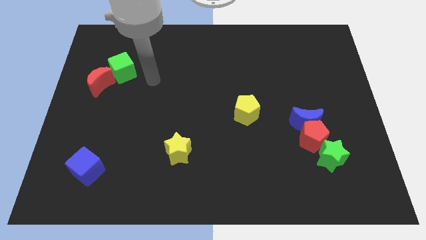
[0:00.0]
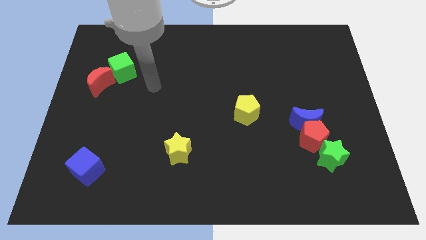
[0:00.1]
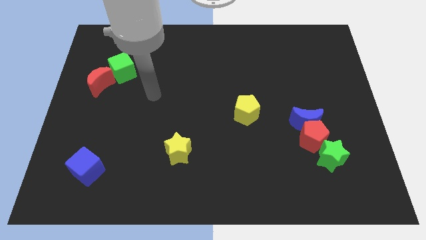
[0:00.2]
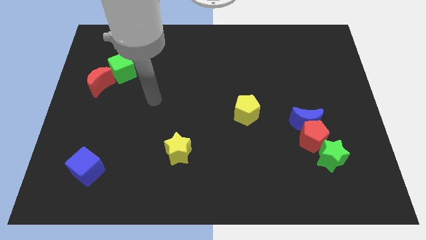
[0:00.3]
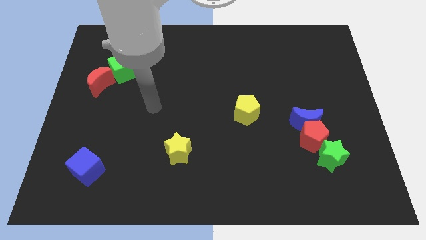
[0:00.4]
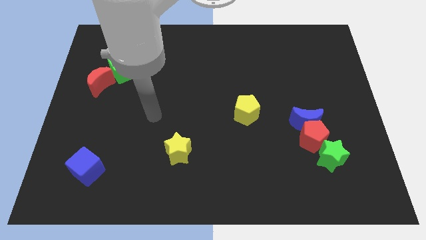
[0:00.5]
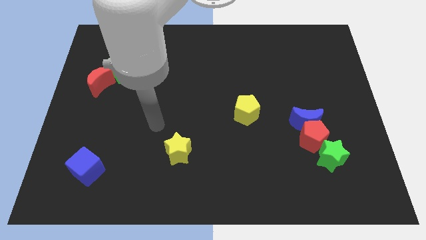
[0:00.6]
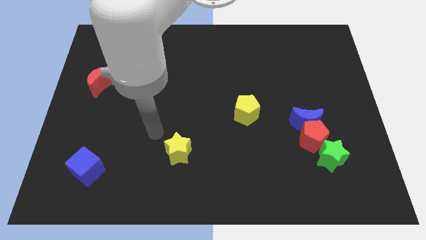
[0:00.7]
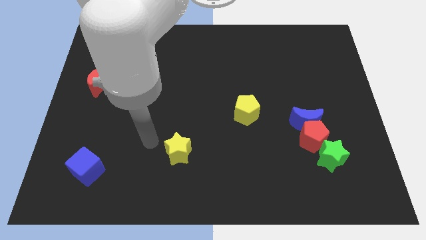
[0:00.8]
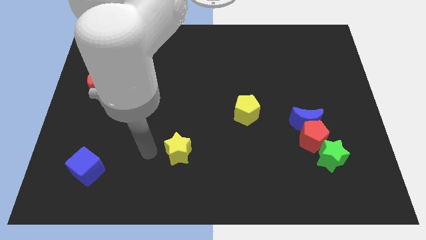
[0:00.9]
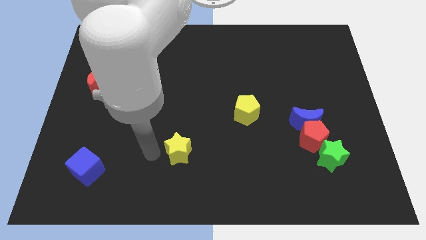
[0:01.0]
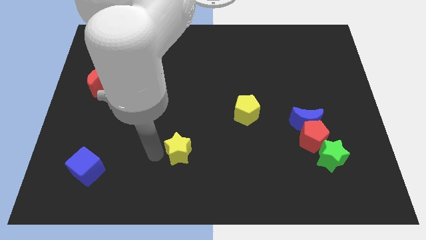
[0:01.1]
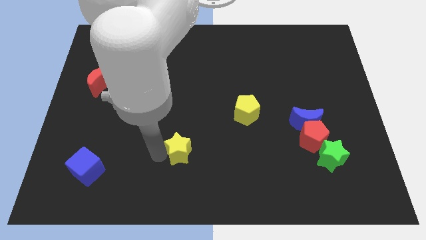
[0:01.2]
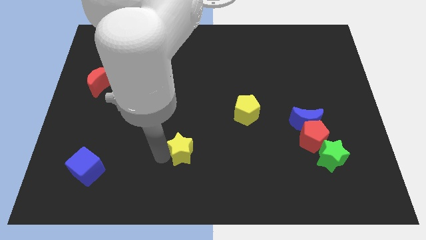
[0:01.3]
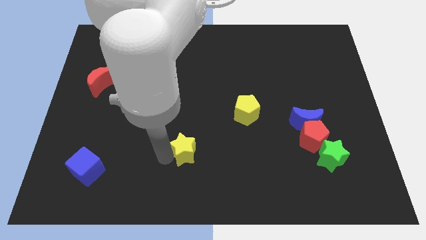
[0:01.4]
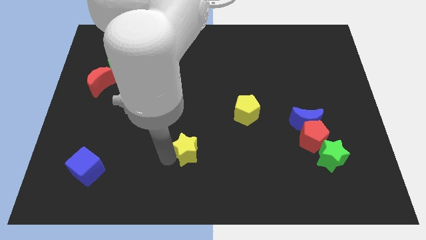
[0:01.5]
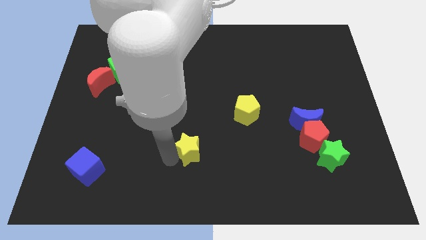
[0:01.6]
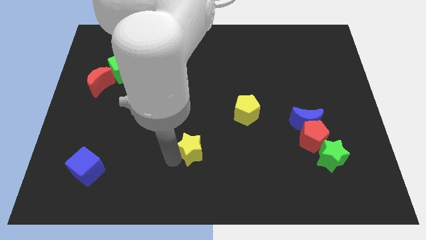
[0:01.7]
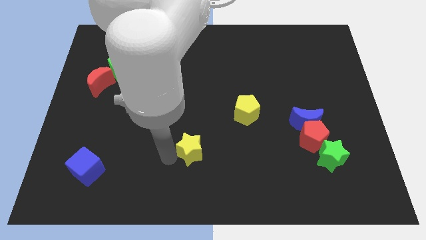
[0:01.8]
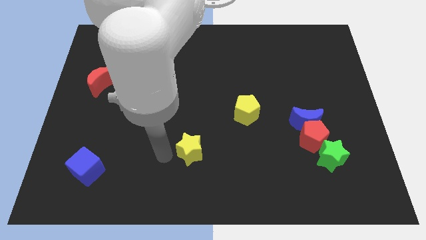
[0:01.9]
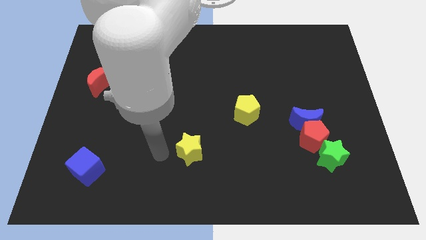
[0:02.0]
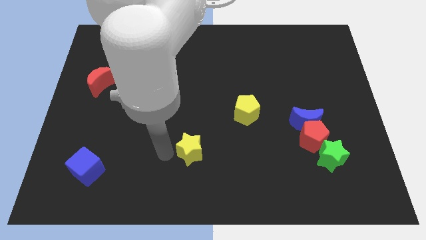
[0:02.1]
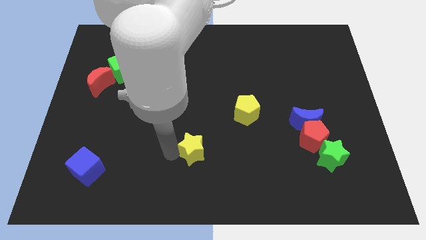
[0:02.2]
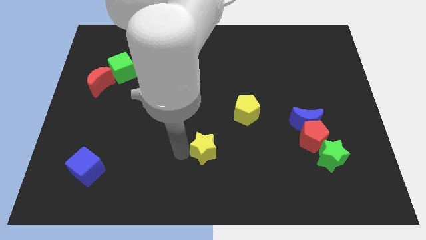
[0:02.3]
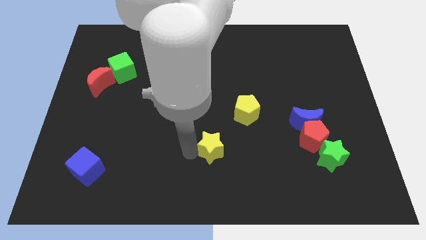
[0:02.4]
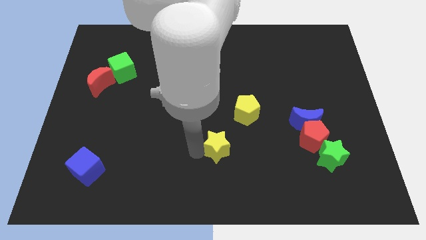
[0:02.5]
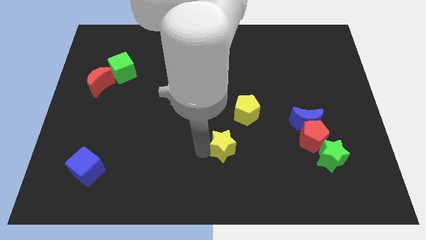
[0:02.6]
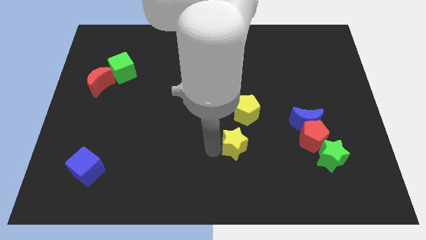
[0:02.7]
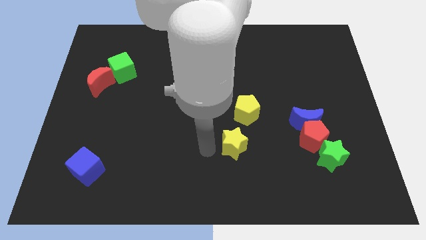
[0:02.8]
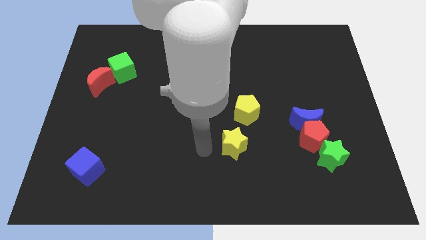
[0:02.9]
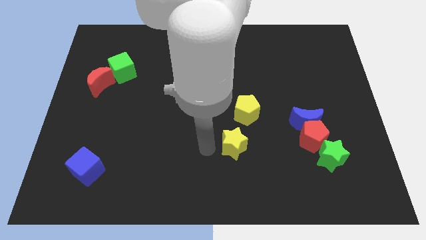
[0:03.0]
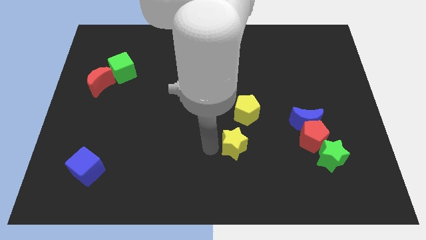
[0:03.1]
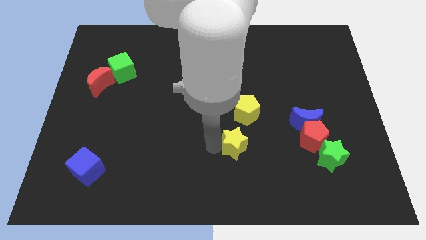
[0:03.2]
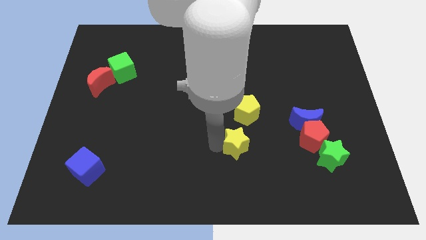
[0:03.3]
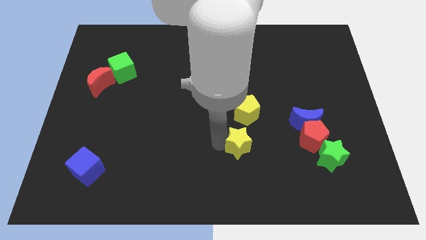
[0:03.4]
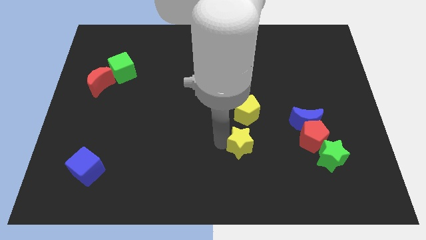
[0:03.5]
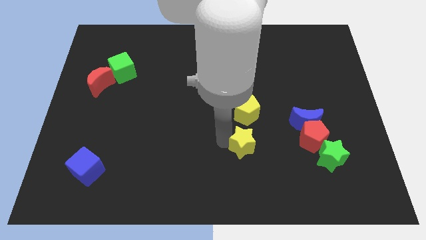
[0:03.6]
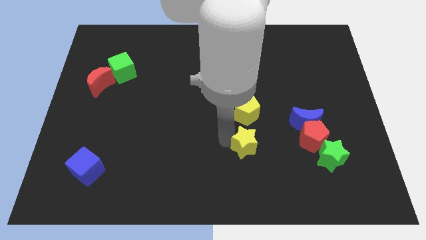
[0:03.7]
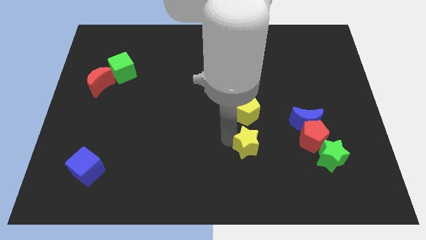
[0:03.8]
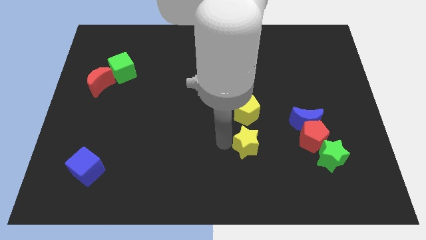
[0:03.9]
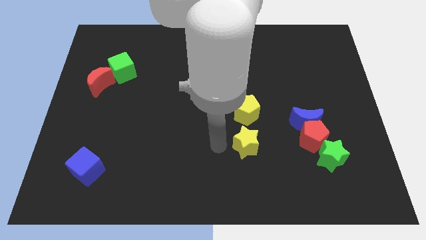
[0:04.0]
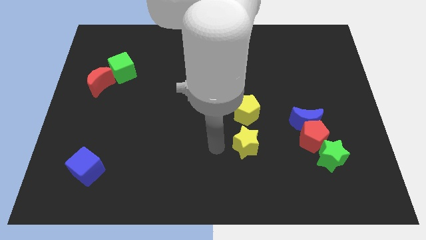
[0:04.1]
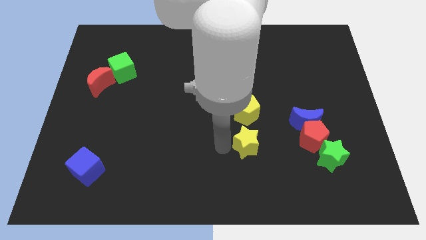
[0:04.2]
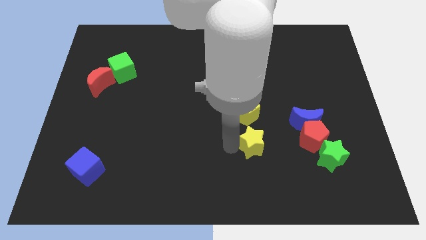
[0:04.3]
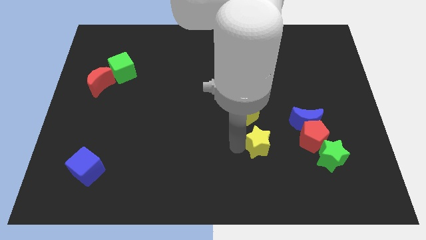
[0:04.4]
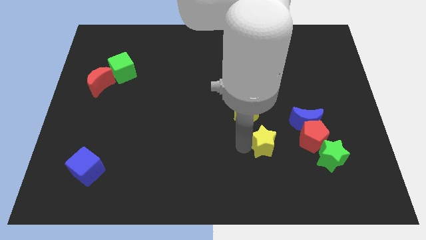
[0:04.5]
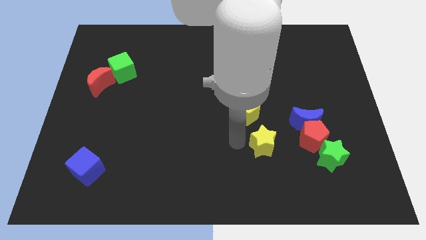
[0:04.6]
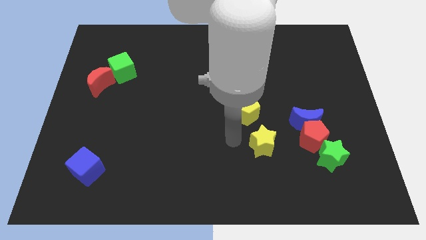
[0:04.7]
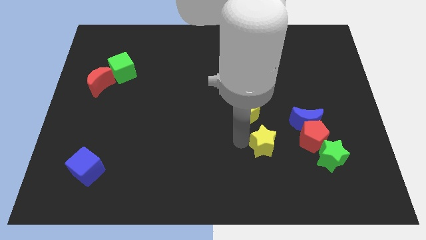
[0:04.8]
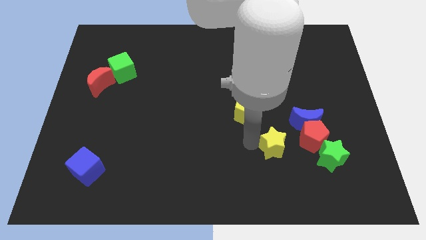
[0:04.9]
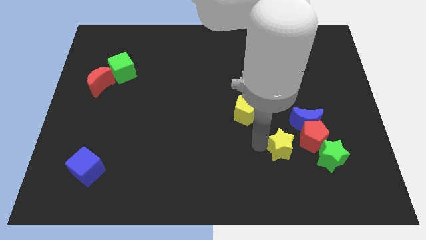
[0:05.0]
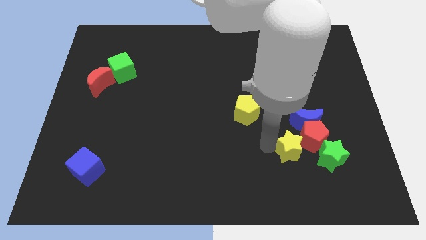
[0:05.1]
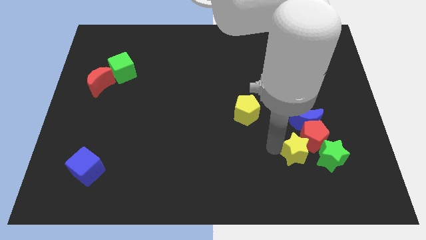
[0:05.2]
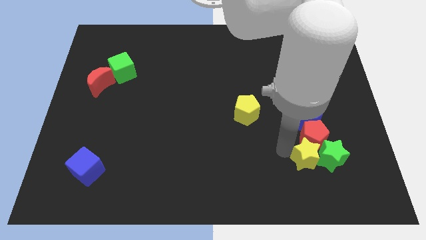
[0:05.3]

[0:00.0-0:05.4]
push the yellow star to the green star
